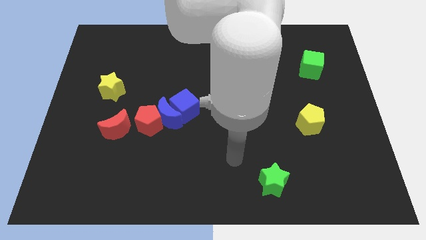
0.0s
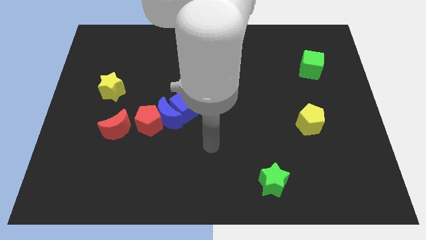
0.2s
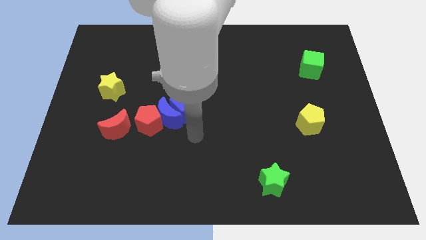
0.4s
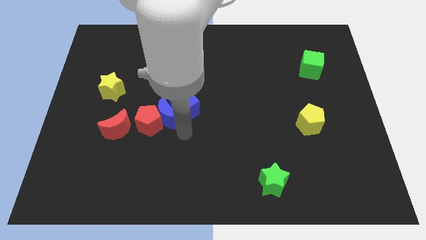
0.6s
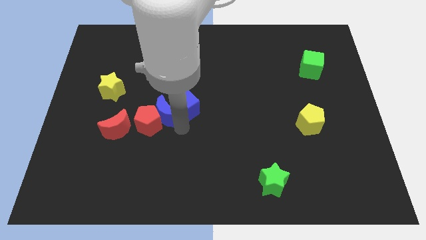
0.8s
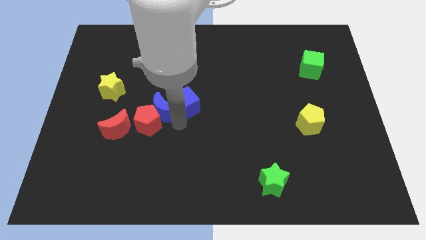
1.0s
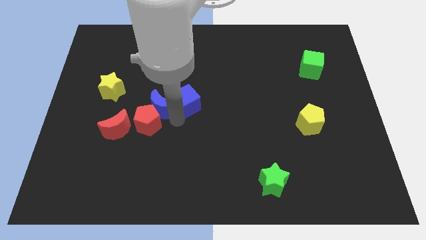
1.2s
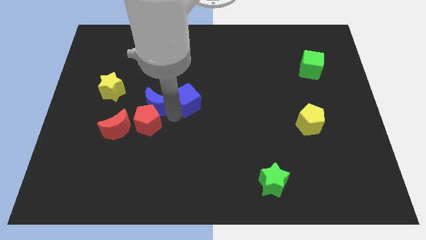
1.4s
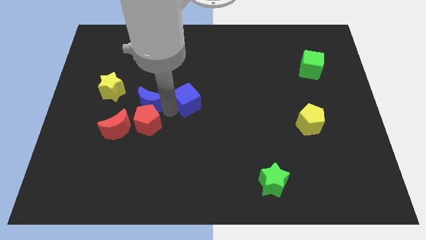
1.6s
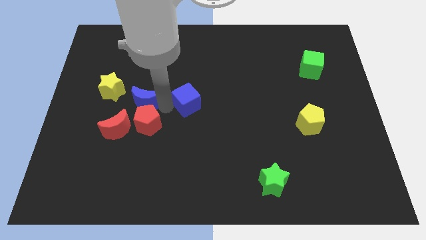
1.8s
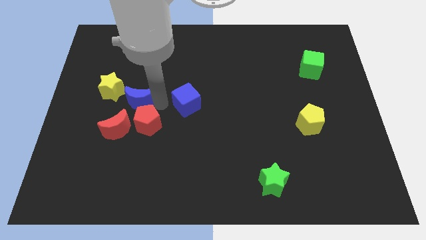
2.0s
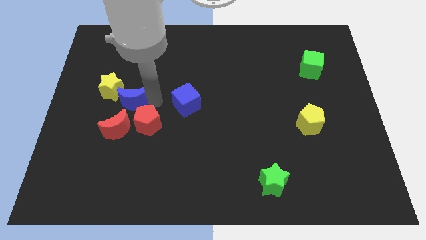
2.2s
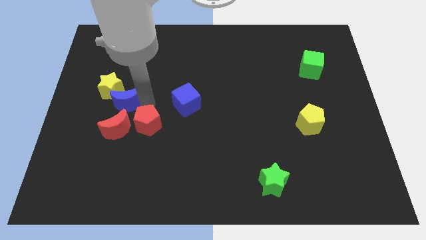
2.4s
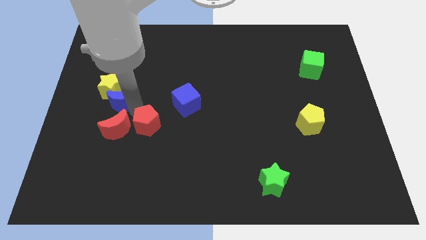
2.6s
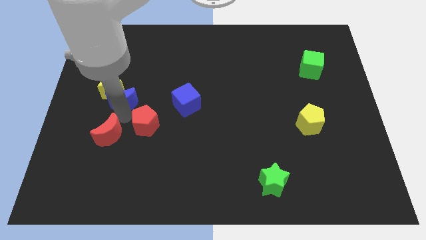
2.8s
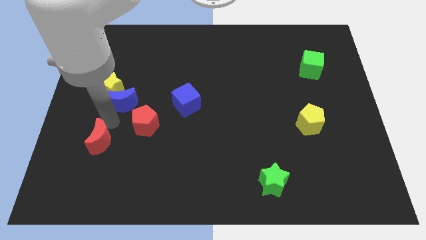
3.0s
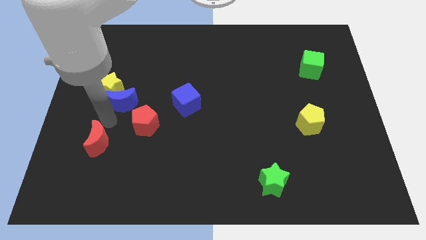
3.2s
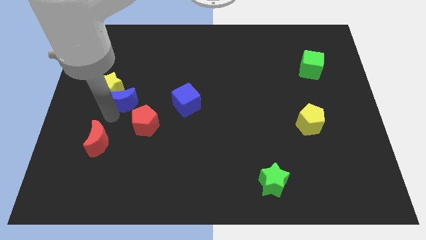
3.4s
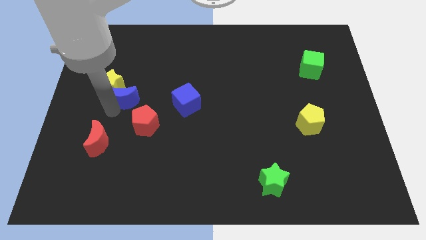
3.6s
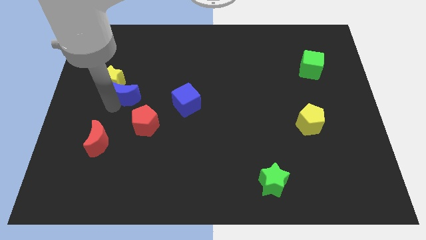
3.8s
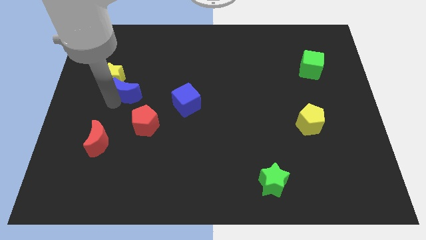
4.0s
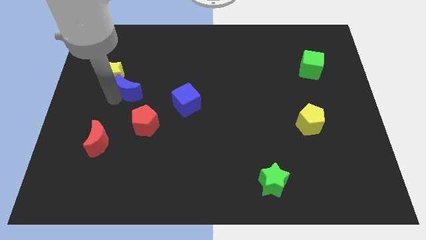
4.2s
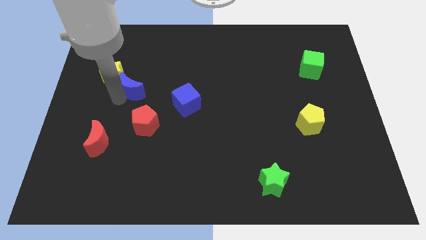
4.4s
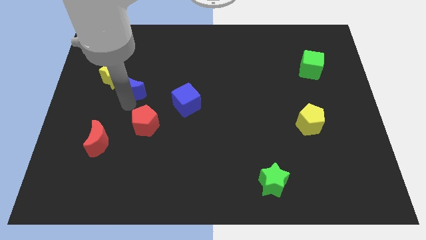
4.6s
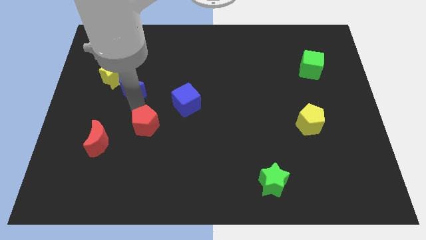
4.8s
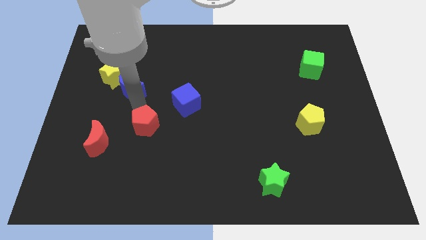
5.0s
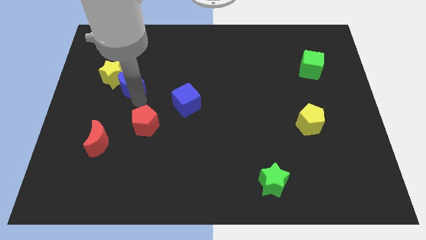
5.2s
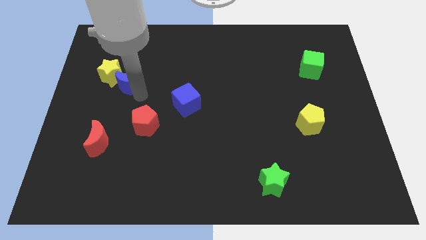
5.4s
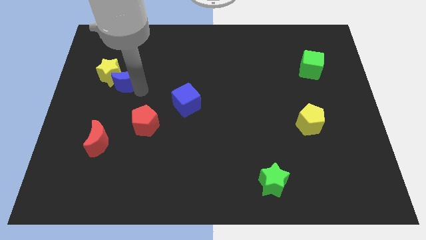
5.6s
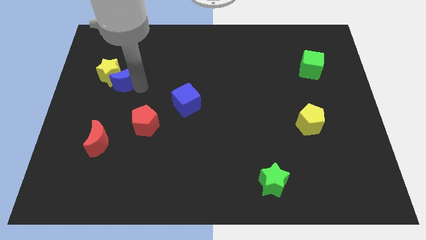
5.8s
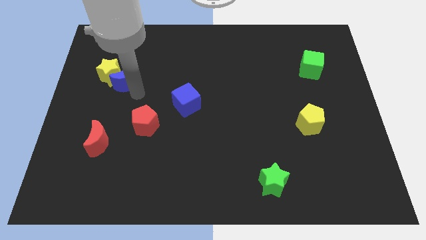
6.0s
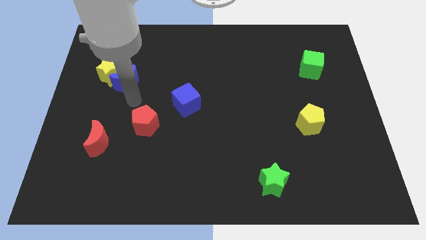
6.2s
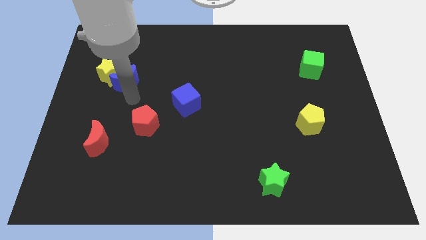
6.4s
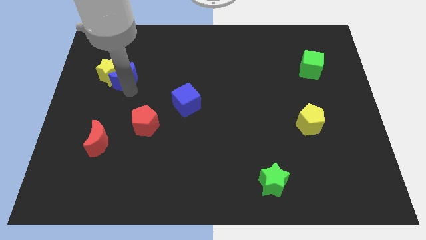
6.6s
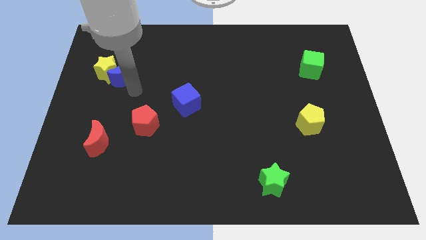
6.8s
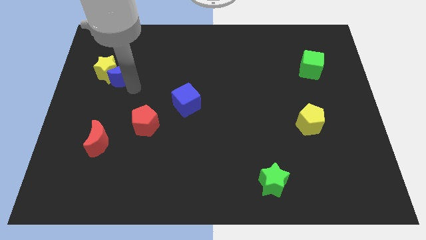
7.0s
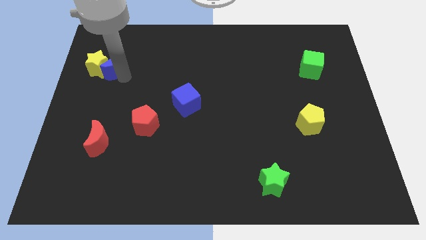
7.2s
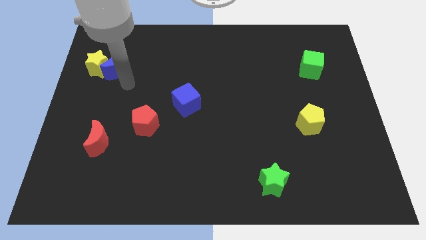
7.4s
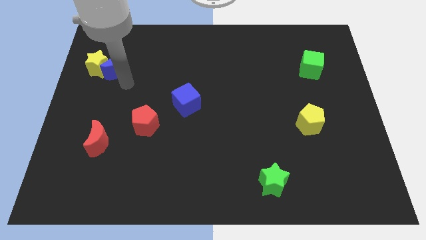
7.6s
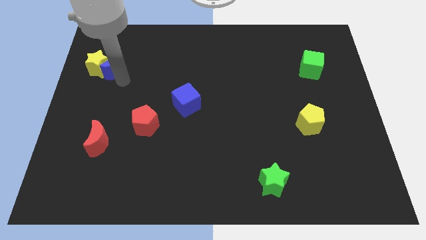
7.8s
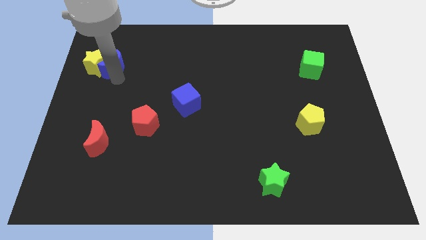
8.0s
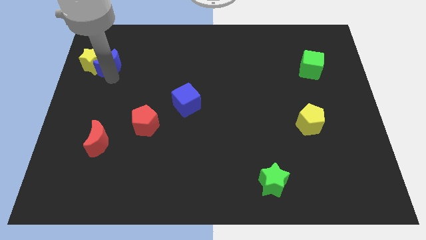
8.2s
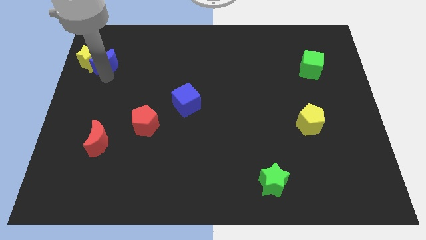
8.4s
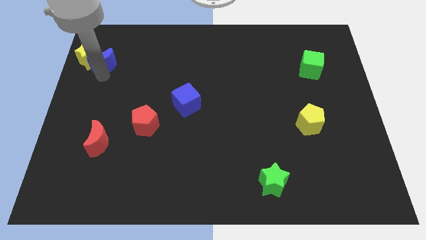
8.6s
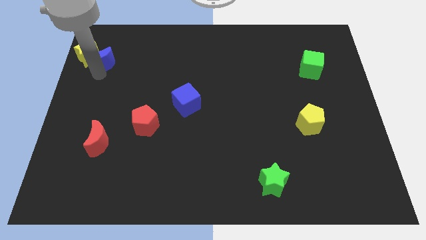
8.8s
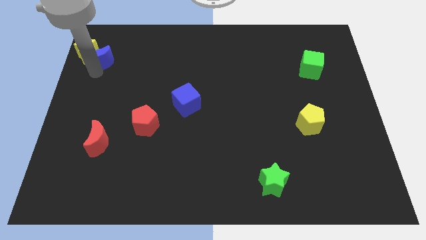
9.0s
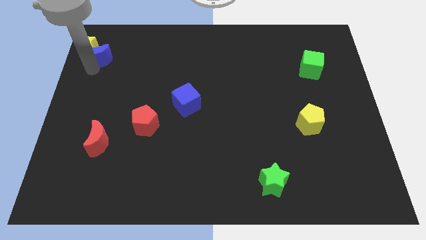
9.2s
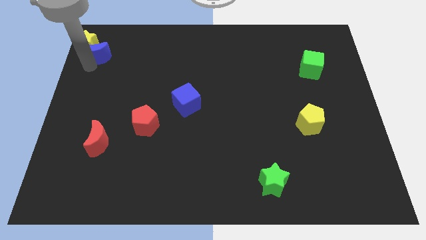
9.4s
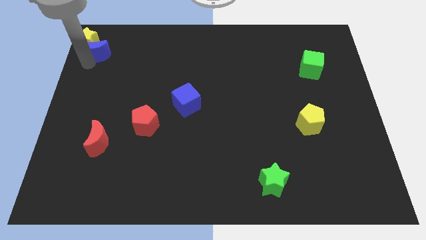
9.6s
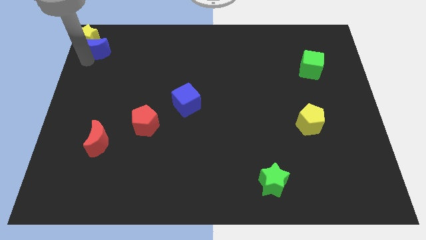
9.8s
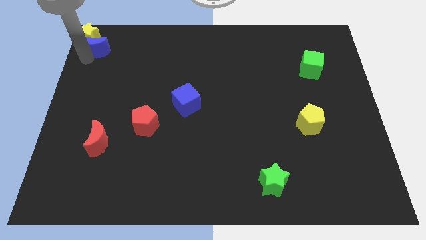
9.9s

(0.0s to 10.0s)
move the blue moon to the upper left corner

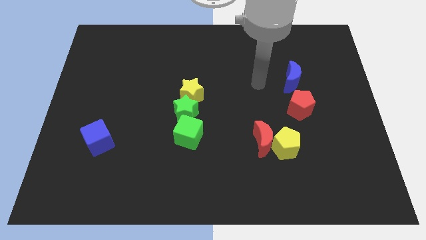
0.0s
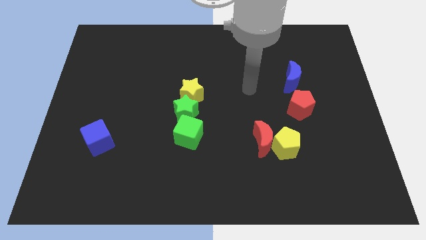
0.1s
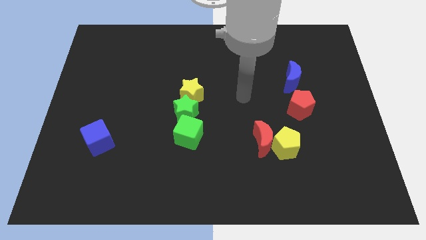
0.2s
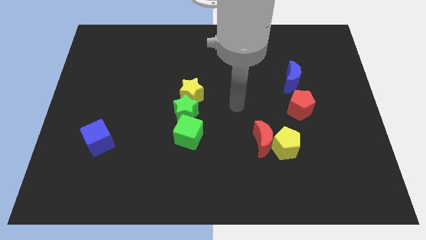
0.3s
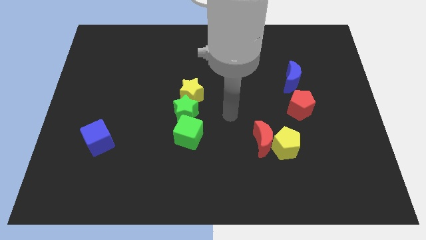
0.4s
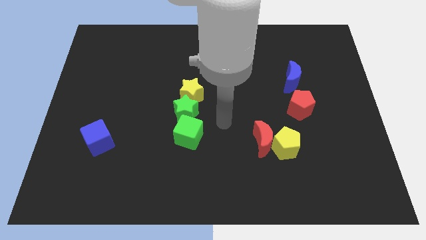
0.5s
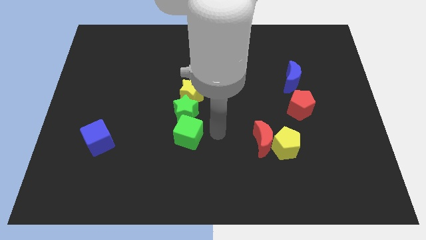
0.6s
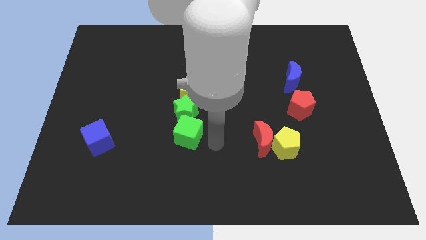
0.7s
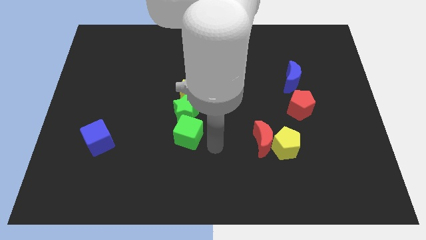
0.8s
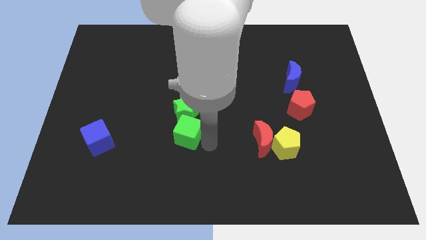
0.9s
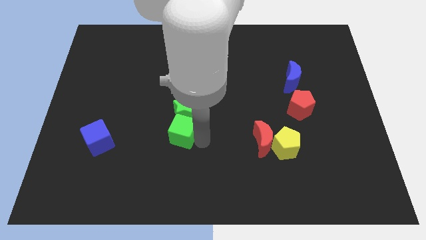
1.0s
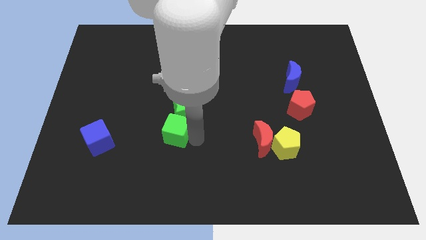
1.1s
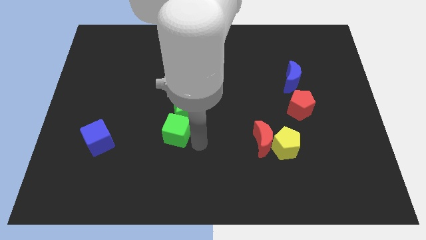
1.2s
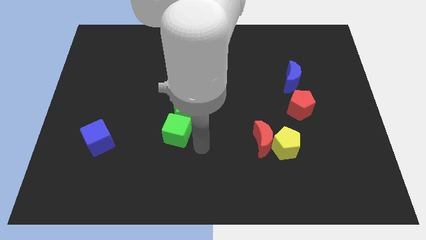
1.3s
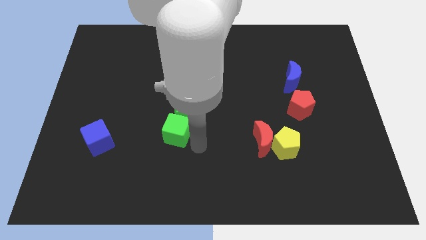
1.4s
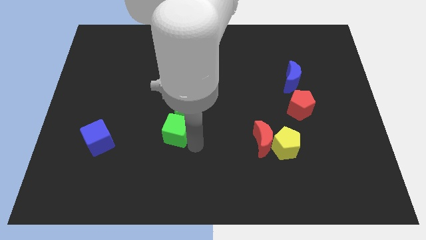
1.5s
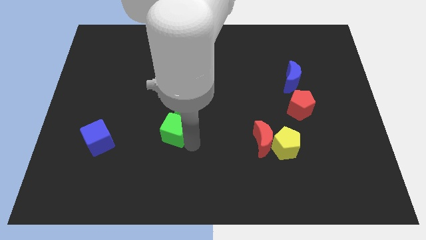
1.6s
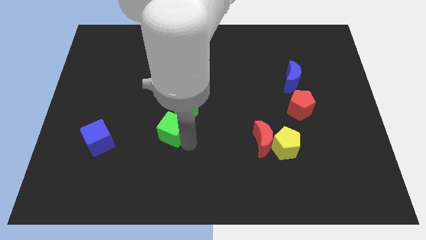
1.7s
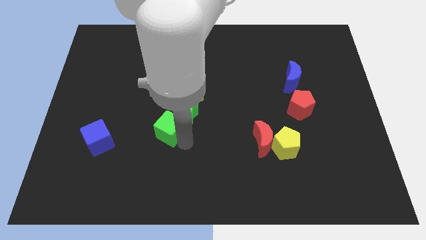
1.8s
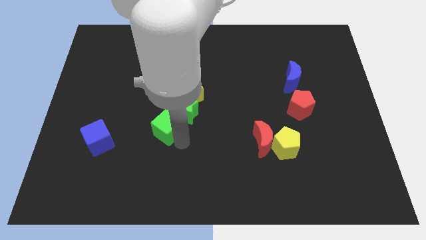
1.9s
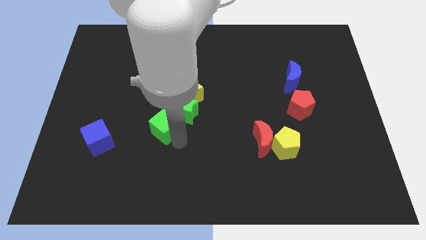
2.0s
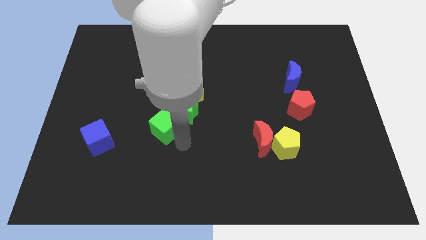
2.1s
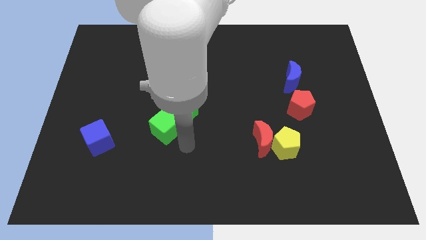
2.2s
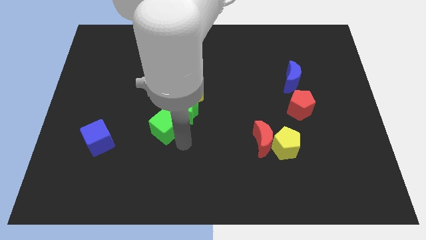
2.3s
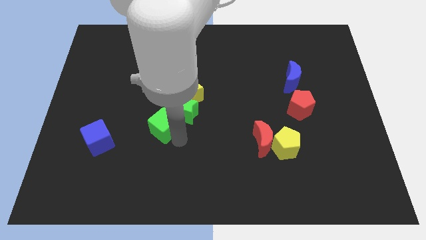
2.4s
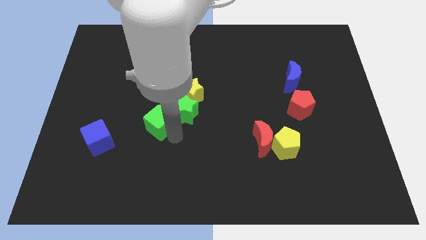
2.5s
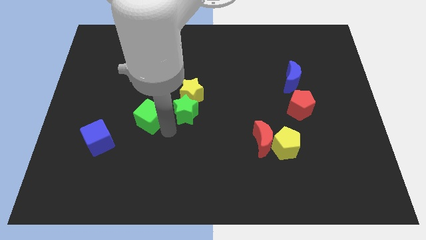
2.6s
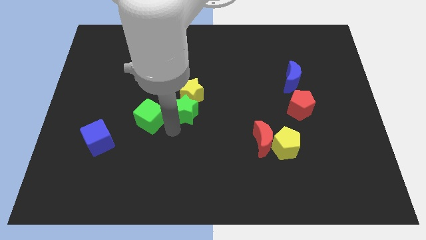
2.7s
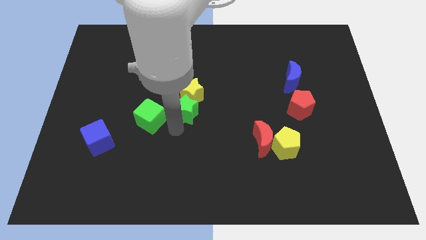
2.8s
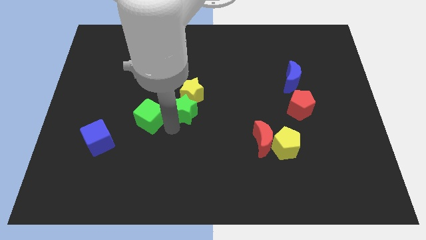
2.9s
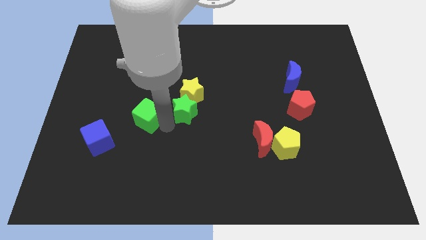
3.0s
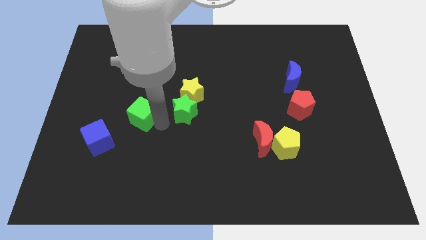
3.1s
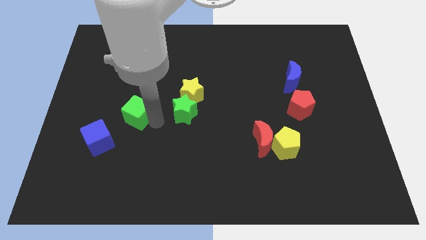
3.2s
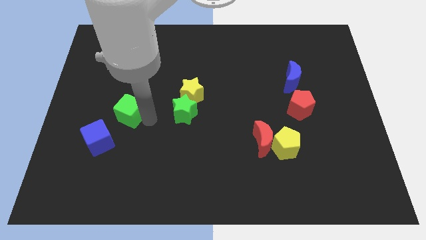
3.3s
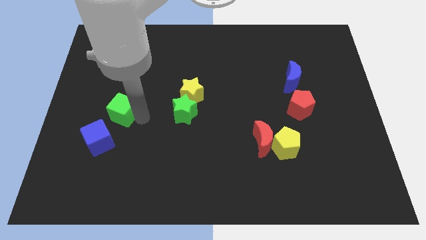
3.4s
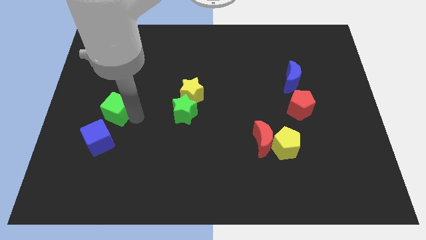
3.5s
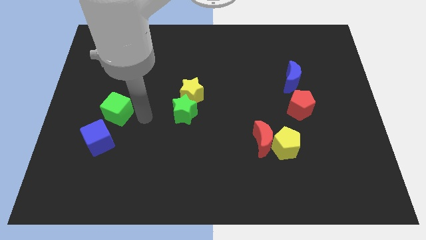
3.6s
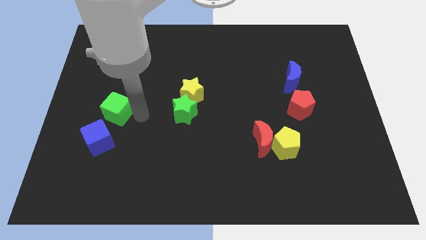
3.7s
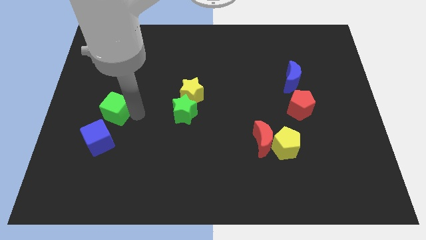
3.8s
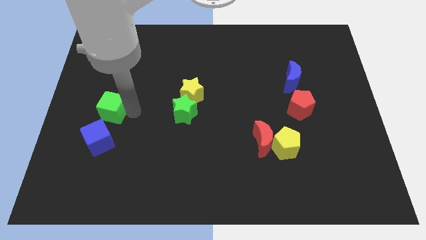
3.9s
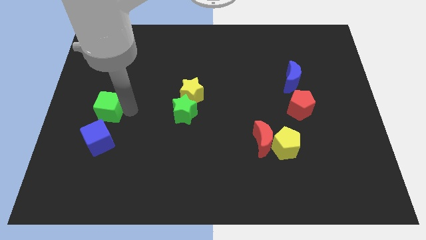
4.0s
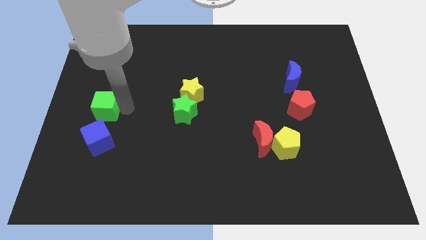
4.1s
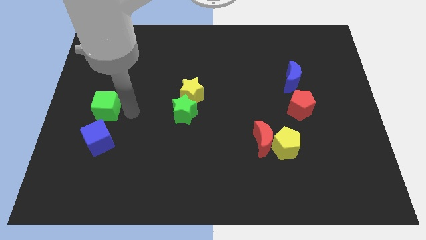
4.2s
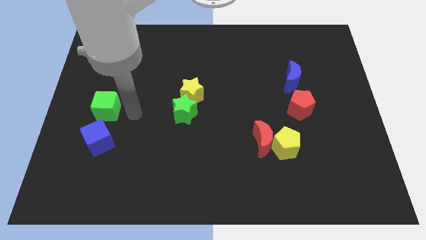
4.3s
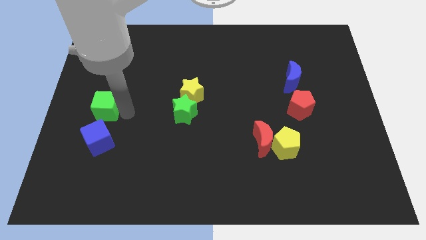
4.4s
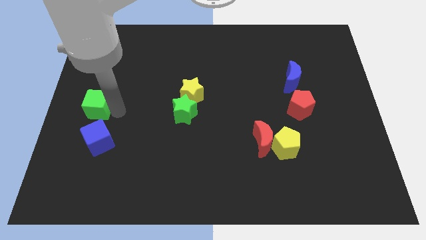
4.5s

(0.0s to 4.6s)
push the green cube to the center left
